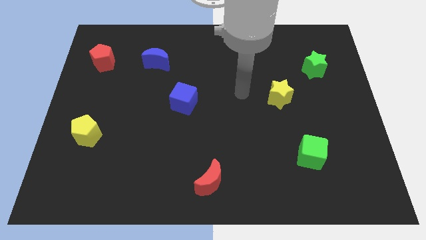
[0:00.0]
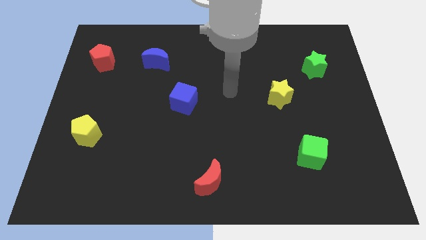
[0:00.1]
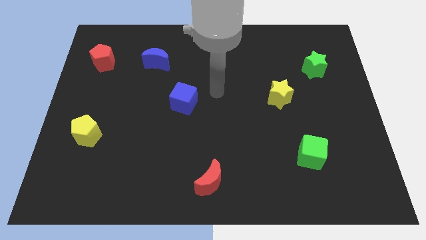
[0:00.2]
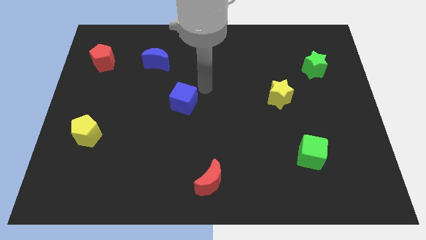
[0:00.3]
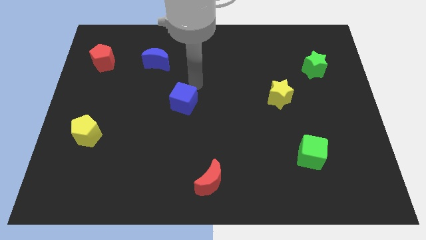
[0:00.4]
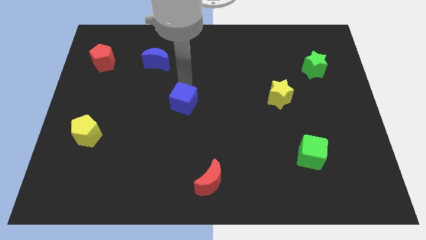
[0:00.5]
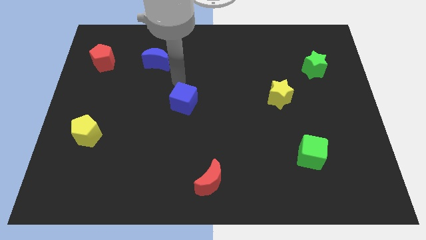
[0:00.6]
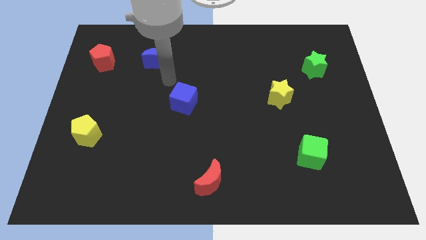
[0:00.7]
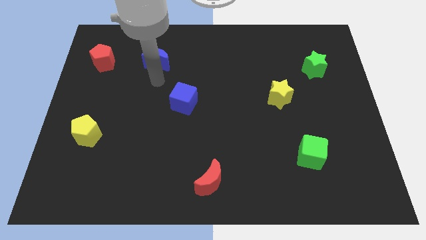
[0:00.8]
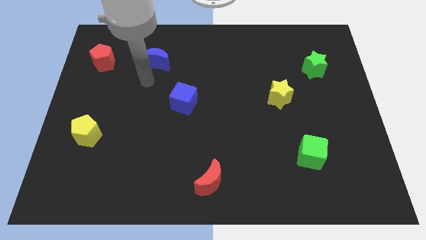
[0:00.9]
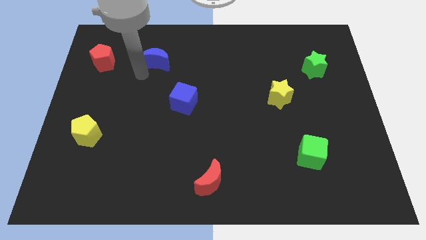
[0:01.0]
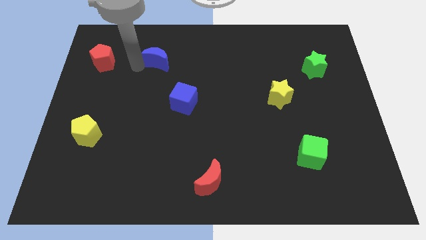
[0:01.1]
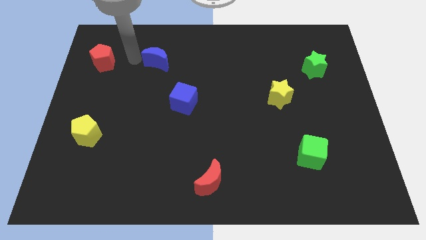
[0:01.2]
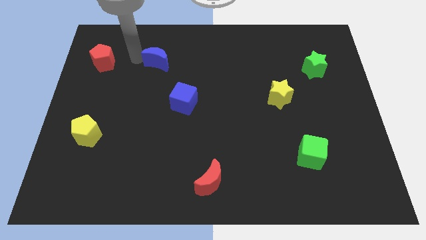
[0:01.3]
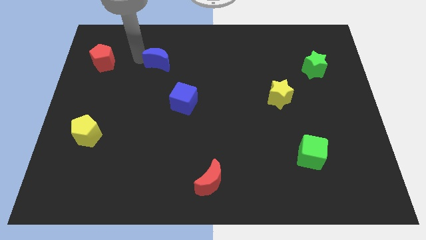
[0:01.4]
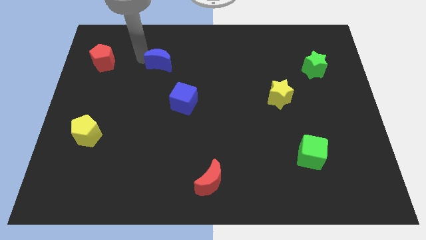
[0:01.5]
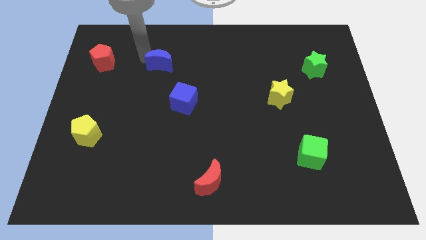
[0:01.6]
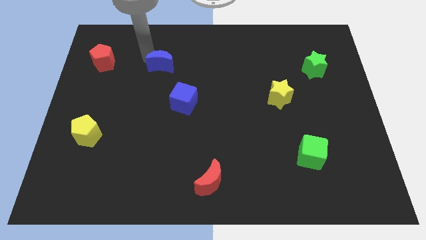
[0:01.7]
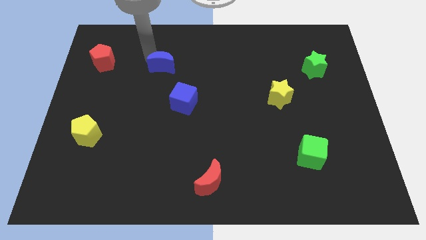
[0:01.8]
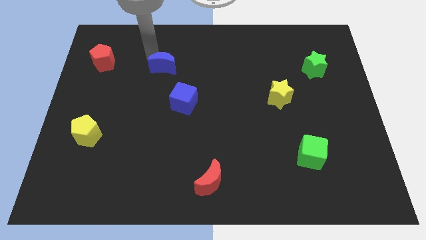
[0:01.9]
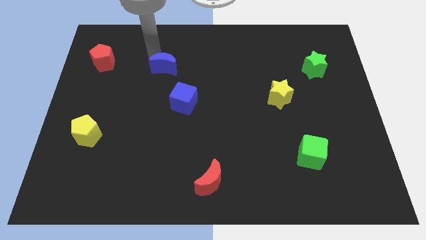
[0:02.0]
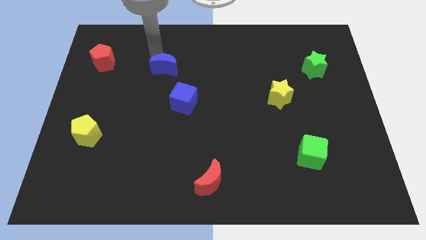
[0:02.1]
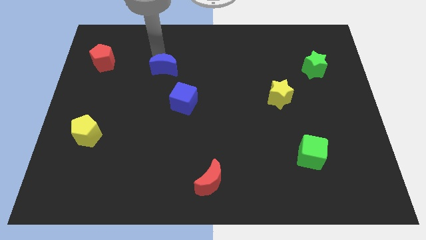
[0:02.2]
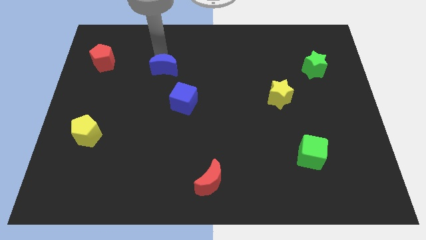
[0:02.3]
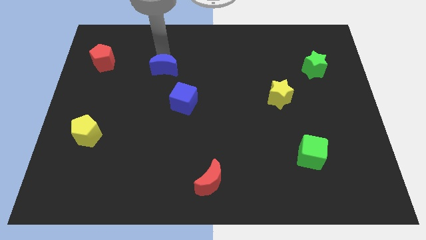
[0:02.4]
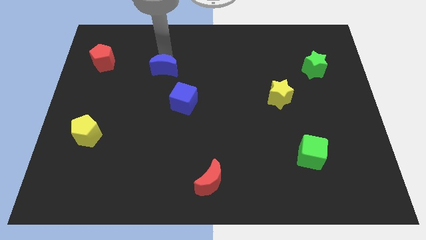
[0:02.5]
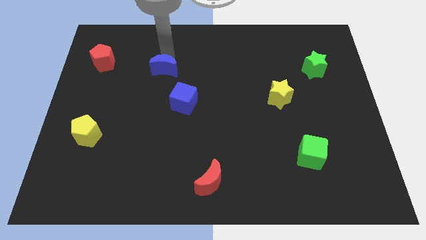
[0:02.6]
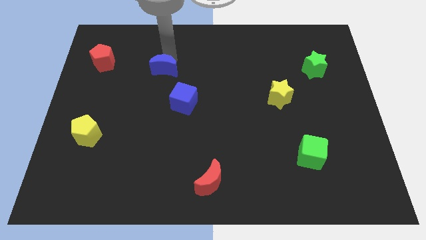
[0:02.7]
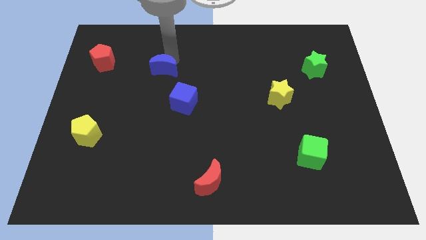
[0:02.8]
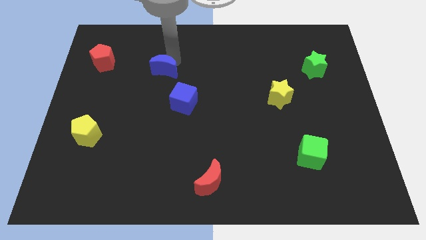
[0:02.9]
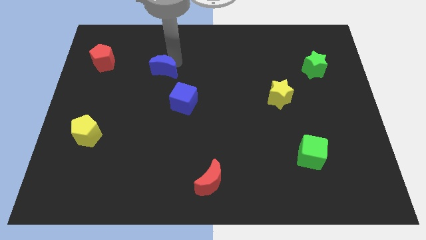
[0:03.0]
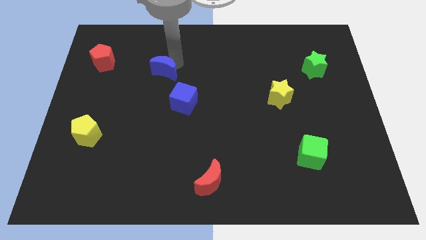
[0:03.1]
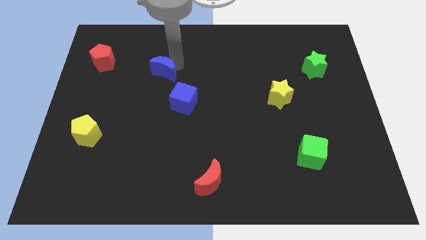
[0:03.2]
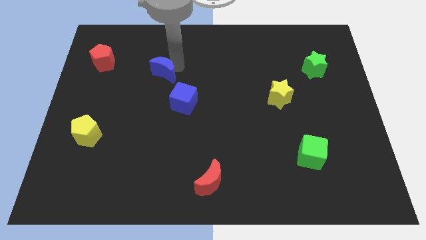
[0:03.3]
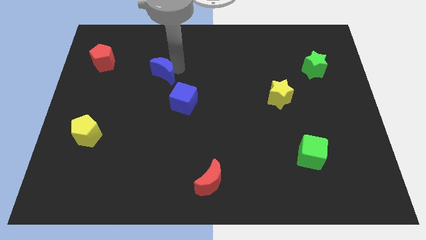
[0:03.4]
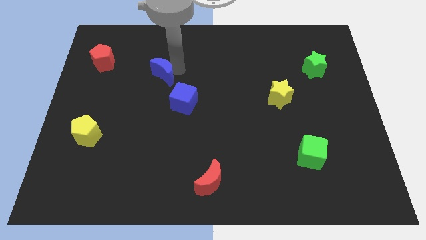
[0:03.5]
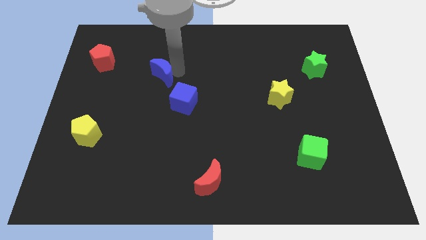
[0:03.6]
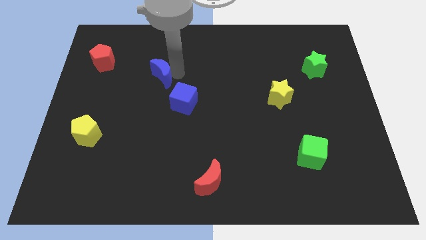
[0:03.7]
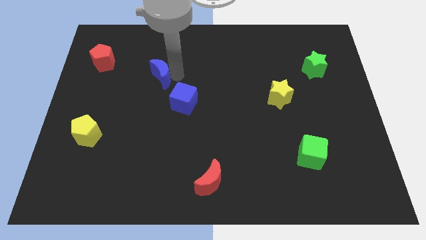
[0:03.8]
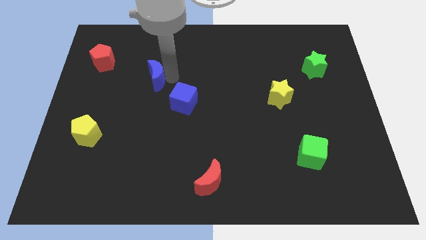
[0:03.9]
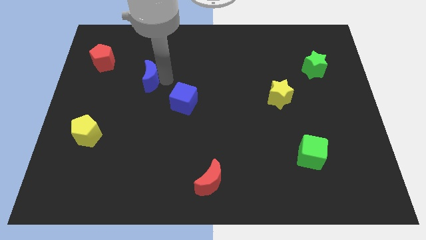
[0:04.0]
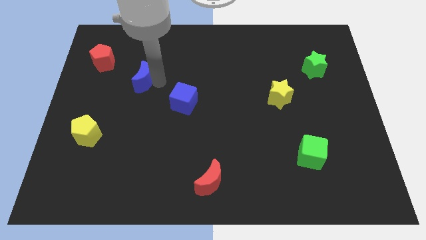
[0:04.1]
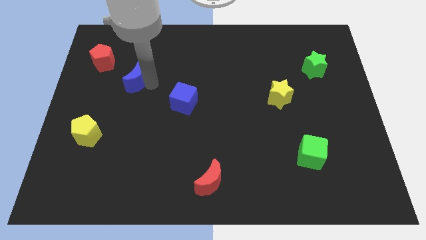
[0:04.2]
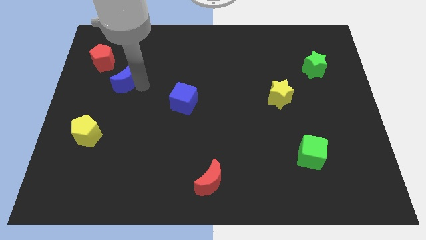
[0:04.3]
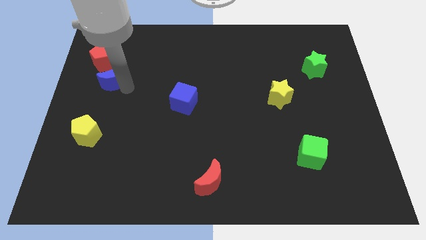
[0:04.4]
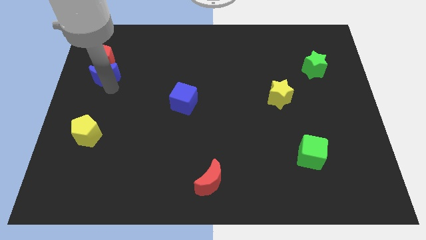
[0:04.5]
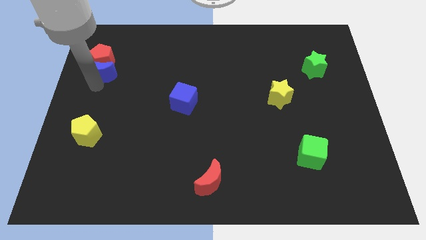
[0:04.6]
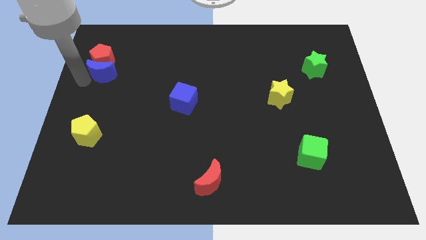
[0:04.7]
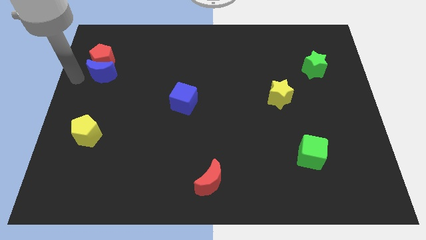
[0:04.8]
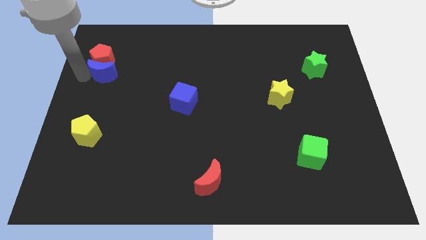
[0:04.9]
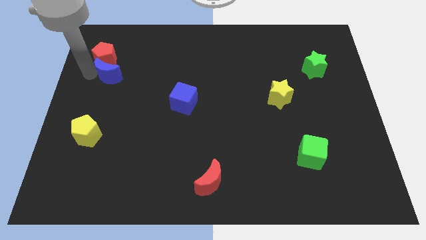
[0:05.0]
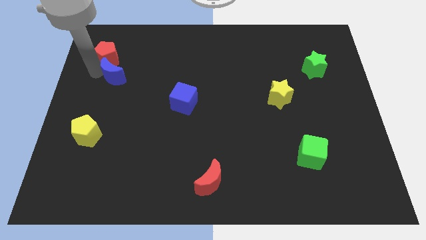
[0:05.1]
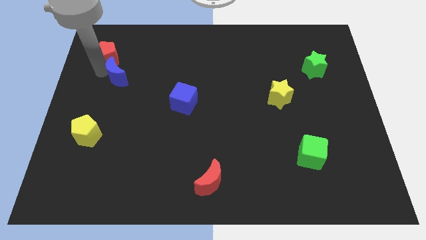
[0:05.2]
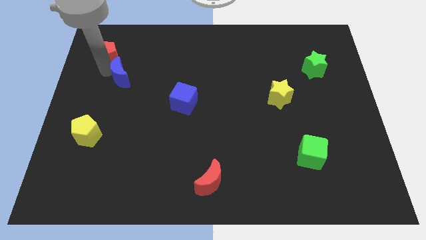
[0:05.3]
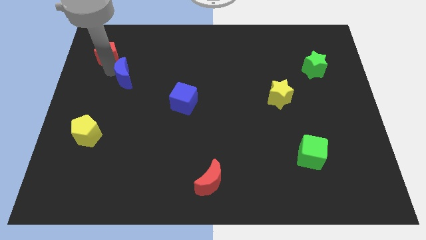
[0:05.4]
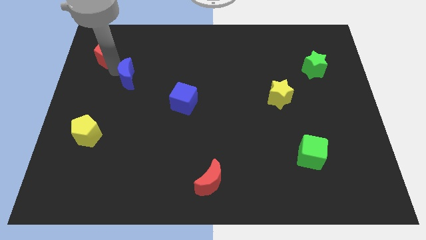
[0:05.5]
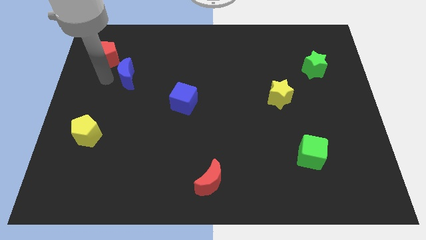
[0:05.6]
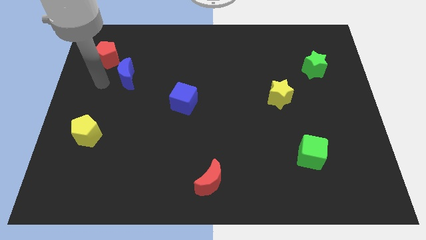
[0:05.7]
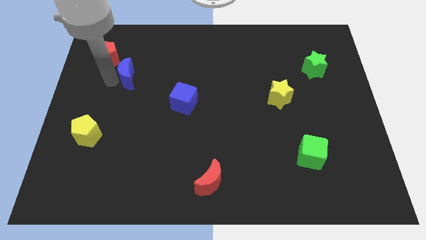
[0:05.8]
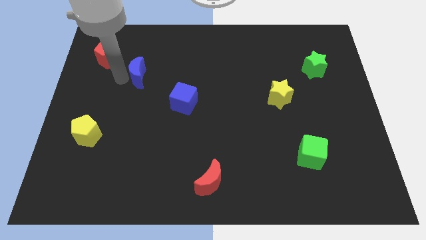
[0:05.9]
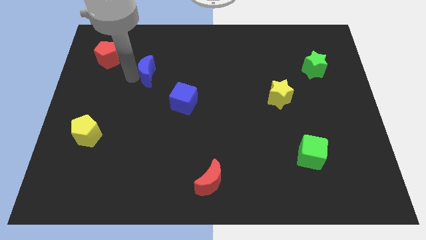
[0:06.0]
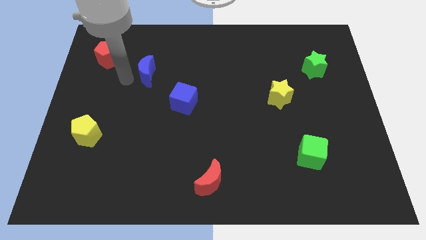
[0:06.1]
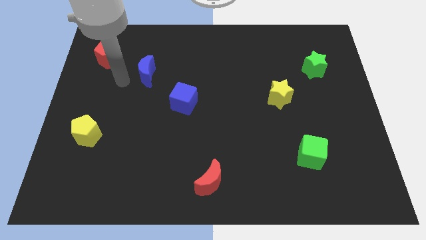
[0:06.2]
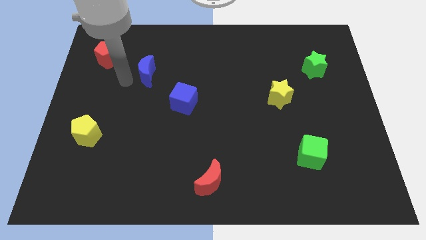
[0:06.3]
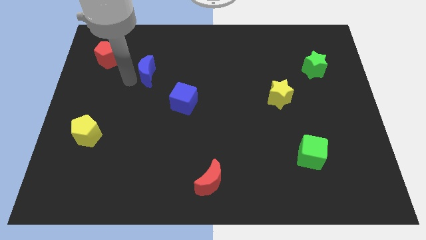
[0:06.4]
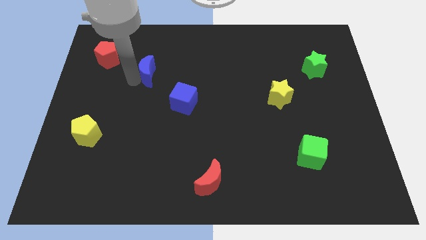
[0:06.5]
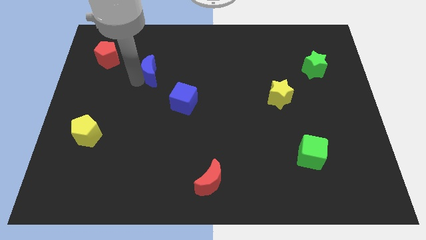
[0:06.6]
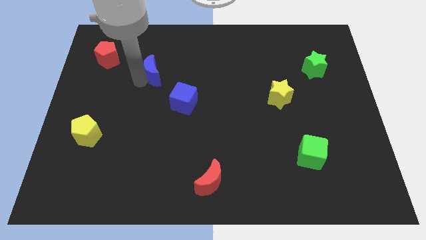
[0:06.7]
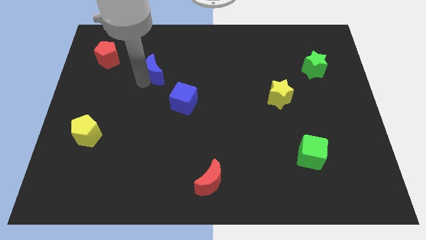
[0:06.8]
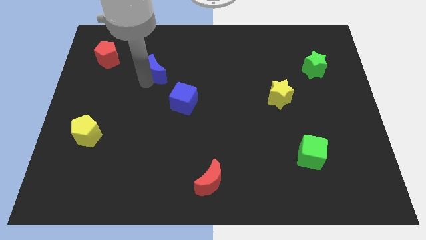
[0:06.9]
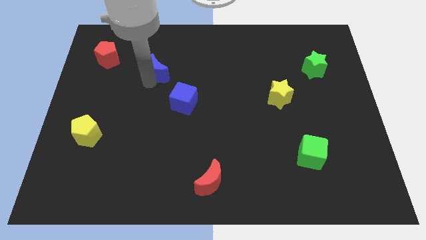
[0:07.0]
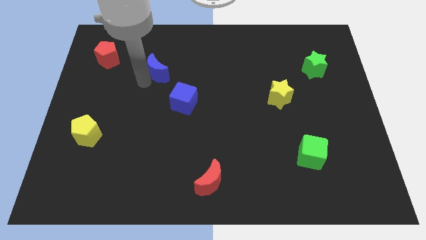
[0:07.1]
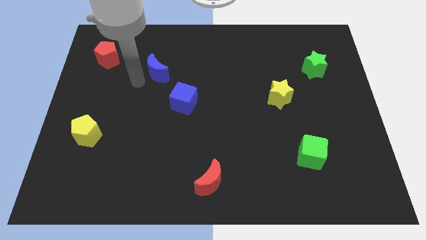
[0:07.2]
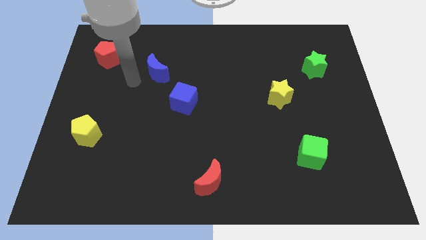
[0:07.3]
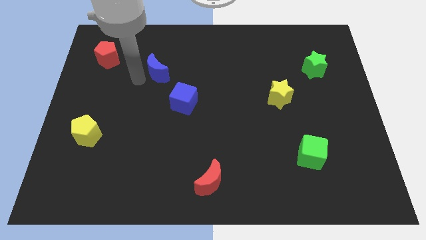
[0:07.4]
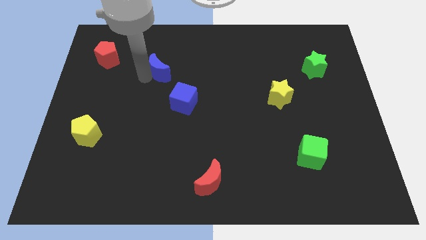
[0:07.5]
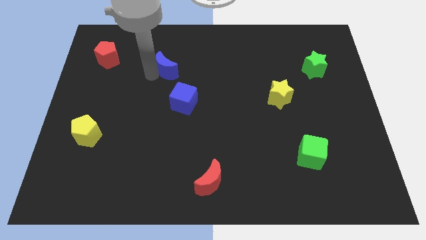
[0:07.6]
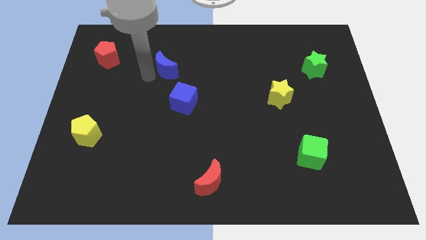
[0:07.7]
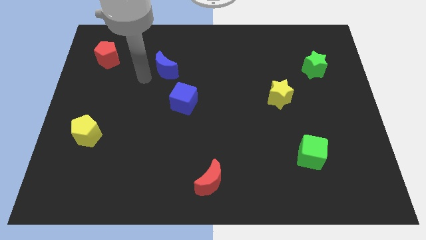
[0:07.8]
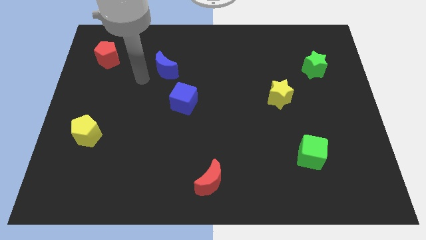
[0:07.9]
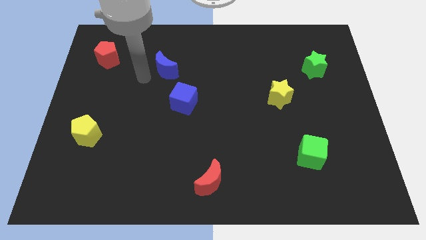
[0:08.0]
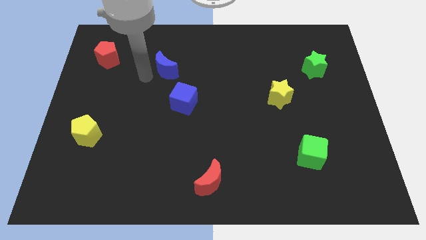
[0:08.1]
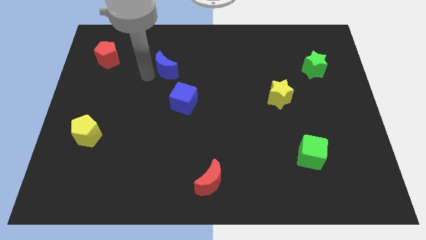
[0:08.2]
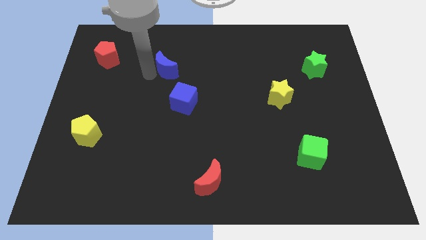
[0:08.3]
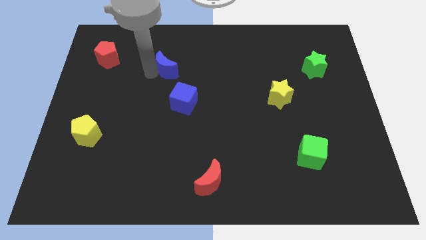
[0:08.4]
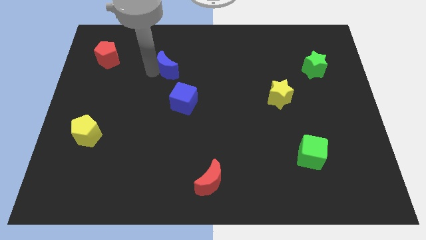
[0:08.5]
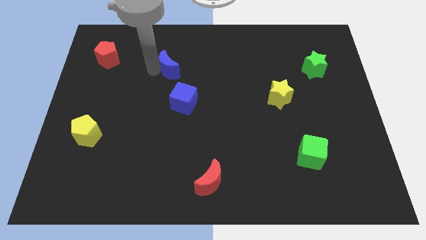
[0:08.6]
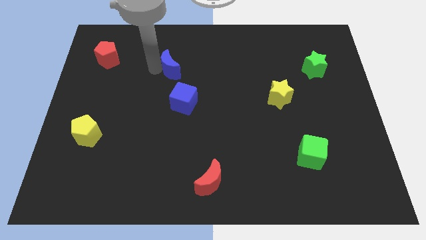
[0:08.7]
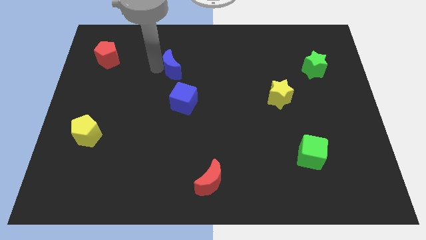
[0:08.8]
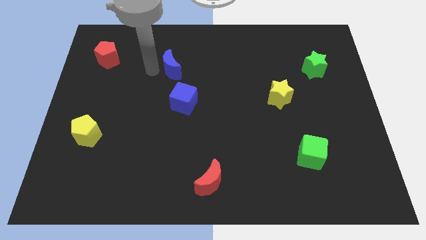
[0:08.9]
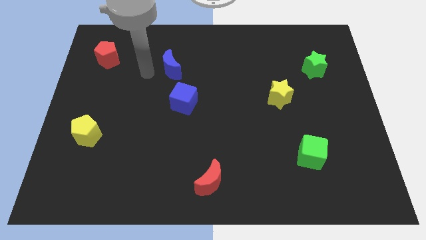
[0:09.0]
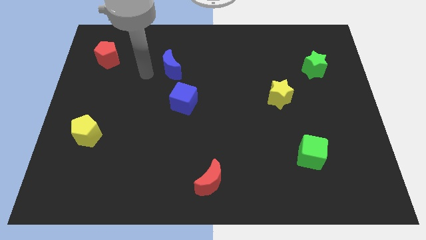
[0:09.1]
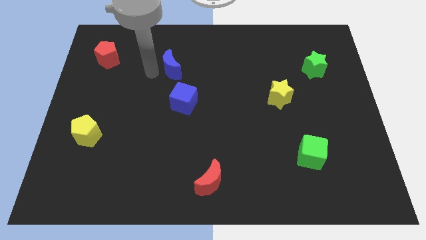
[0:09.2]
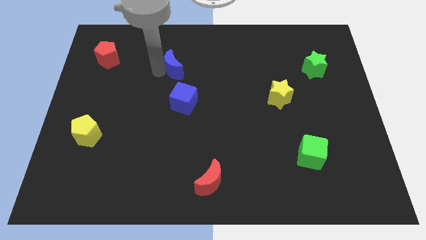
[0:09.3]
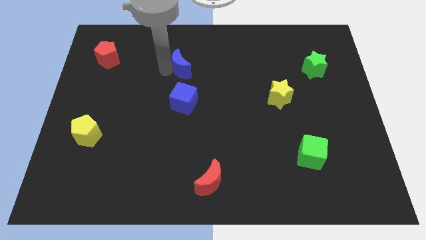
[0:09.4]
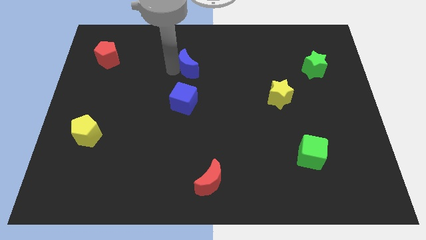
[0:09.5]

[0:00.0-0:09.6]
slide the blue moon a bit to the right
